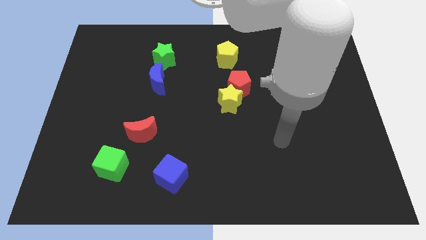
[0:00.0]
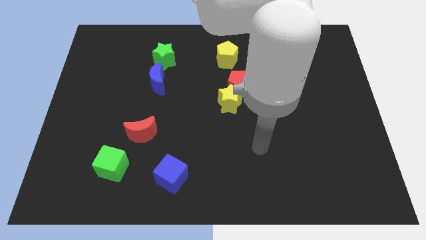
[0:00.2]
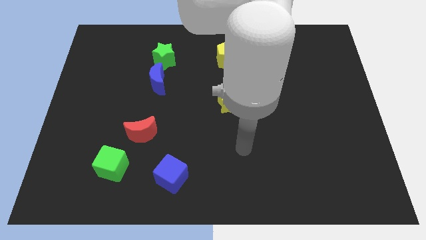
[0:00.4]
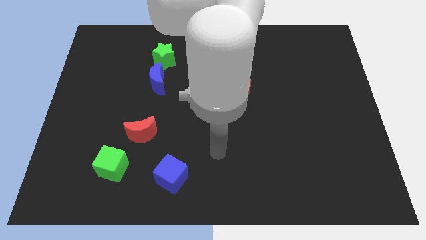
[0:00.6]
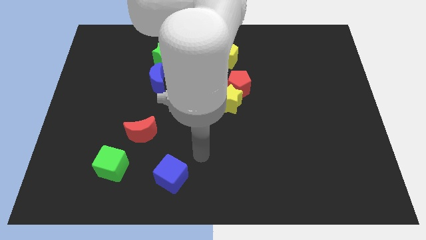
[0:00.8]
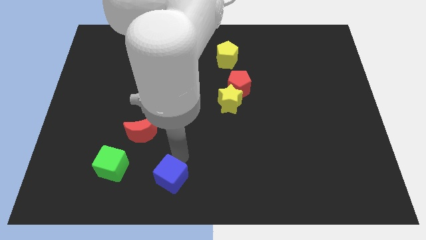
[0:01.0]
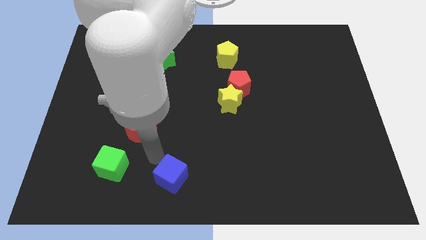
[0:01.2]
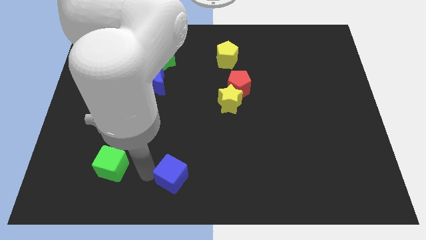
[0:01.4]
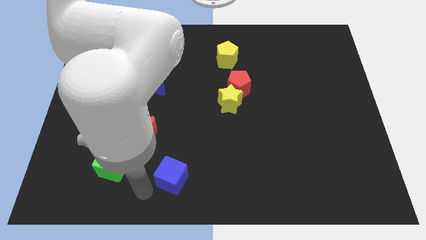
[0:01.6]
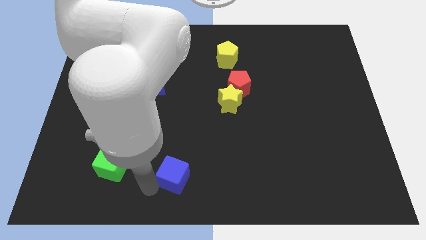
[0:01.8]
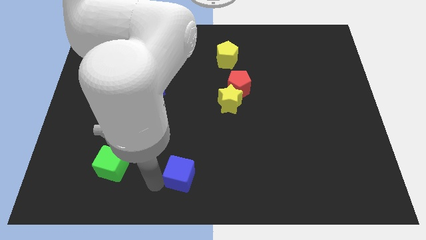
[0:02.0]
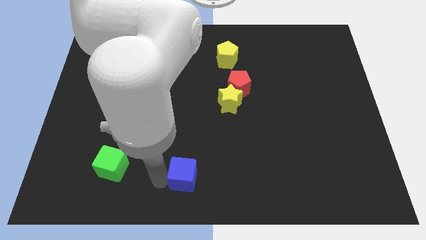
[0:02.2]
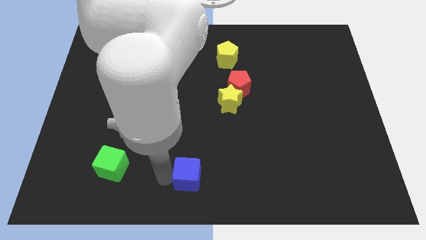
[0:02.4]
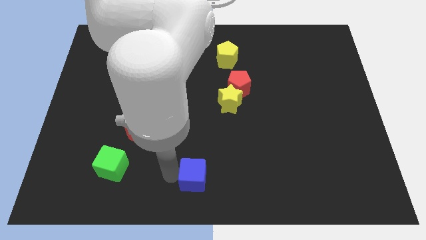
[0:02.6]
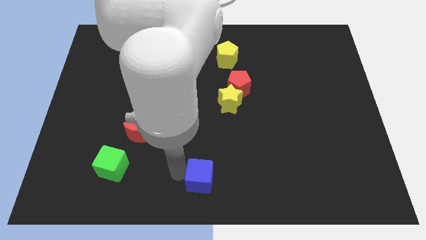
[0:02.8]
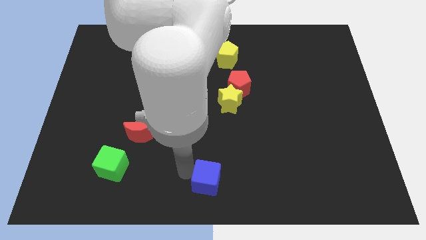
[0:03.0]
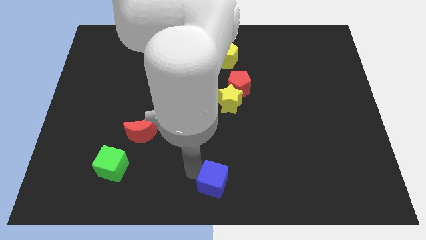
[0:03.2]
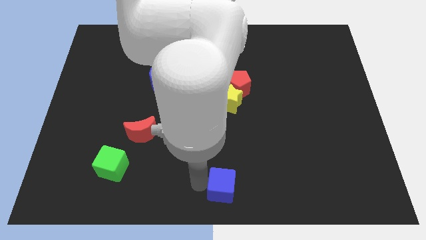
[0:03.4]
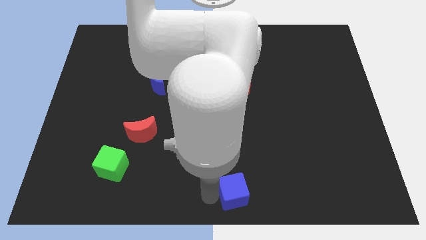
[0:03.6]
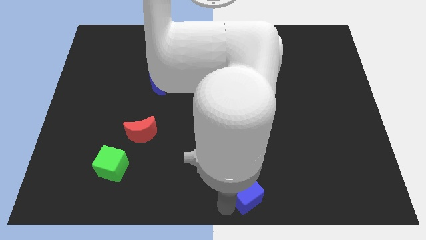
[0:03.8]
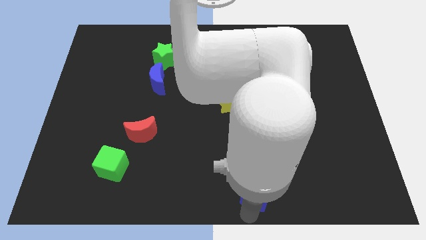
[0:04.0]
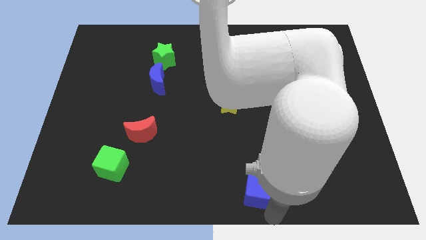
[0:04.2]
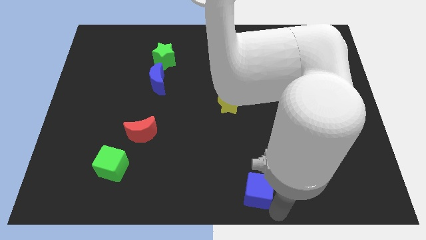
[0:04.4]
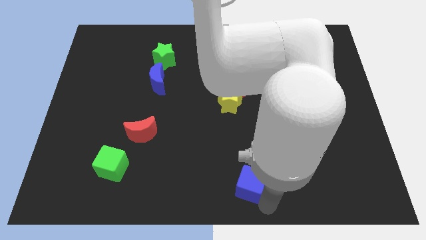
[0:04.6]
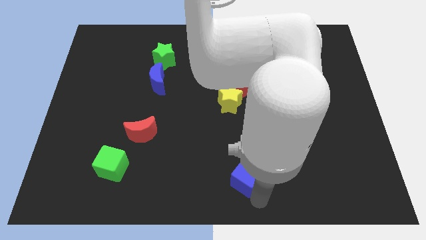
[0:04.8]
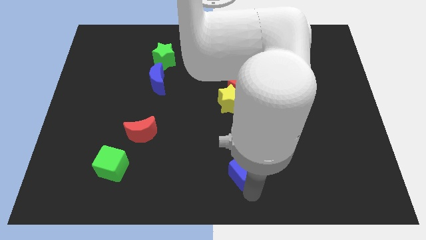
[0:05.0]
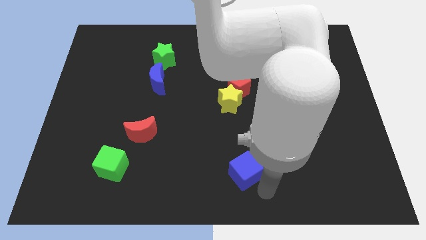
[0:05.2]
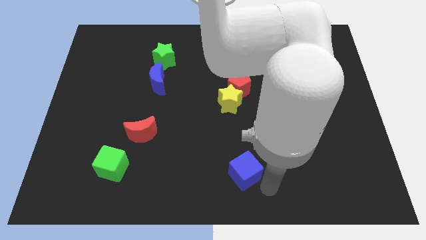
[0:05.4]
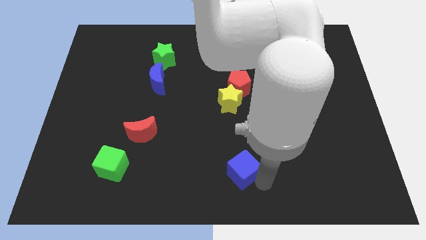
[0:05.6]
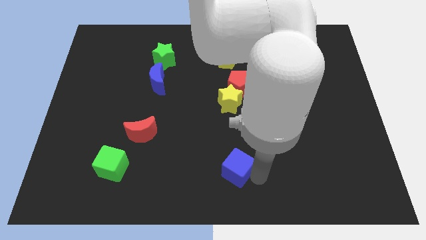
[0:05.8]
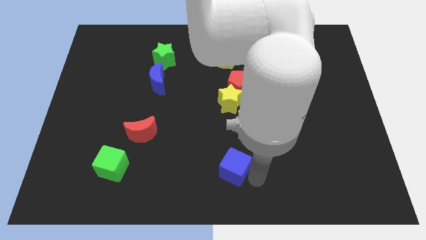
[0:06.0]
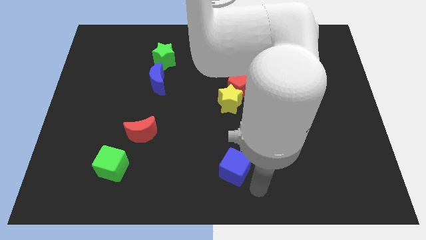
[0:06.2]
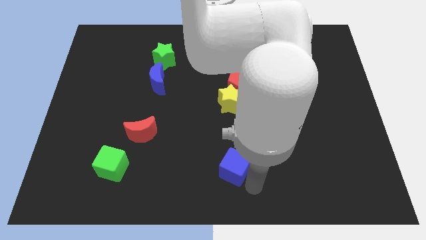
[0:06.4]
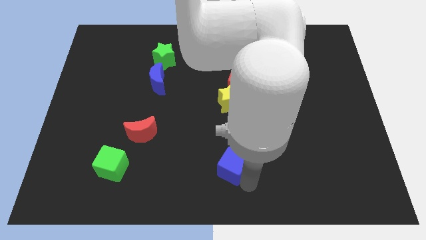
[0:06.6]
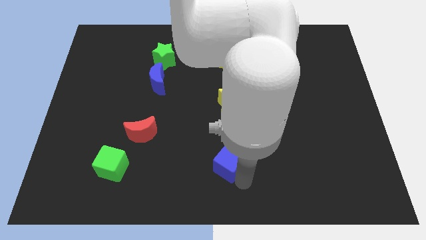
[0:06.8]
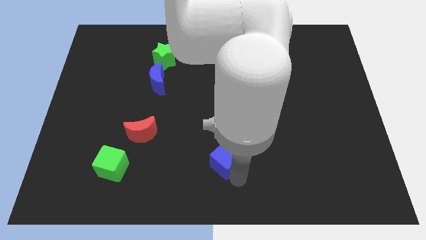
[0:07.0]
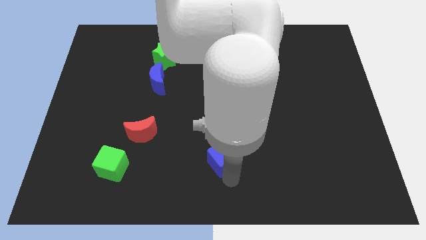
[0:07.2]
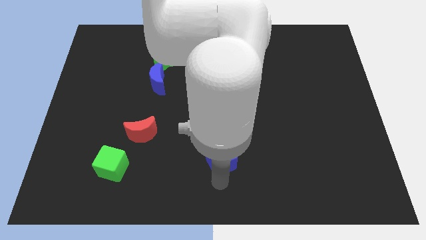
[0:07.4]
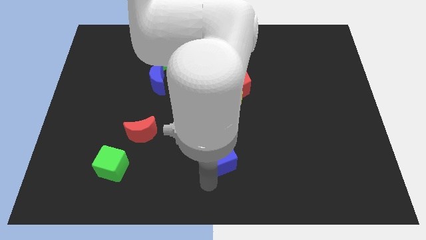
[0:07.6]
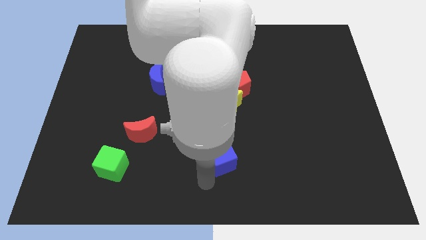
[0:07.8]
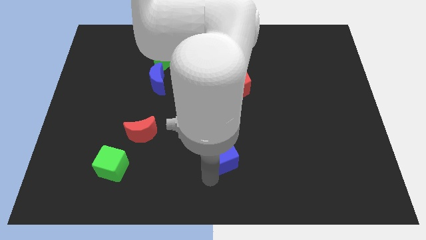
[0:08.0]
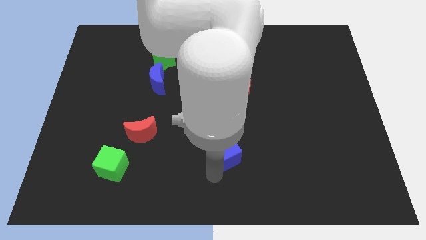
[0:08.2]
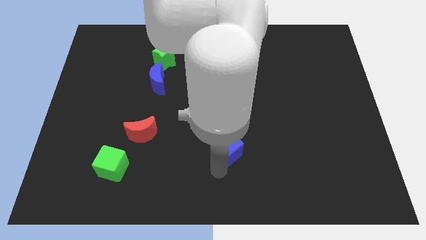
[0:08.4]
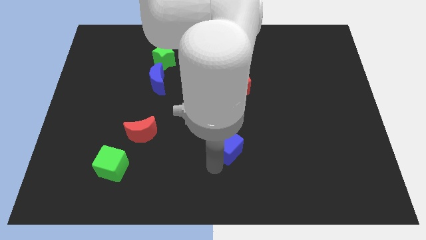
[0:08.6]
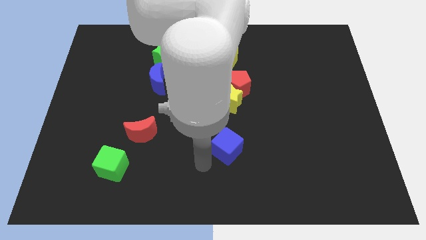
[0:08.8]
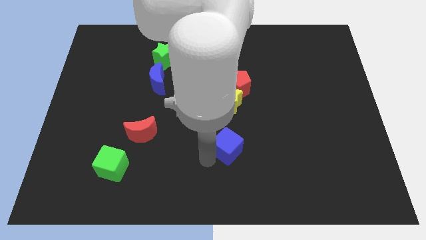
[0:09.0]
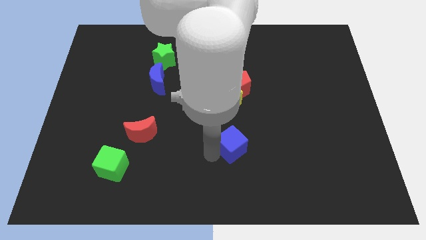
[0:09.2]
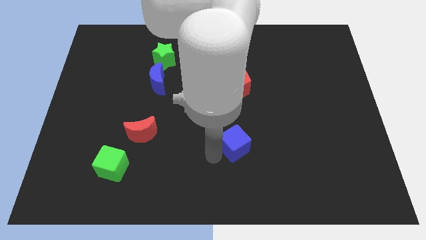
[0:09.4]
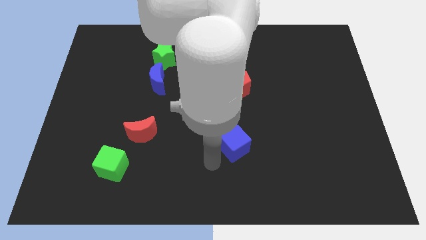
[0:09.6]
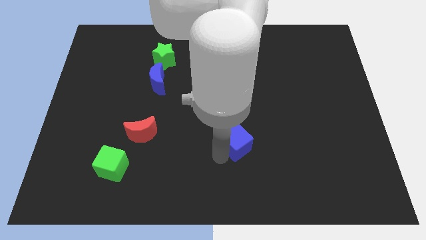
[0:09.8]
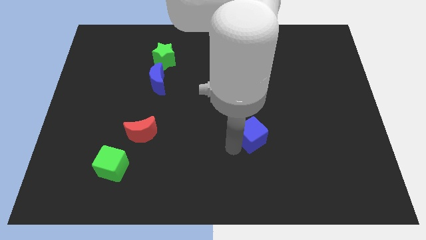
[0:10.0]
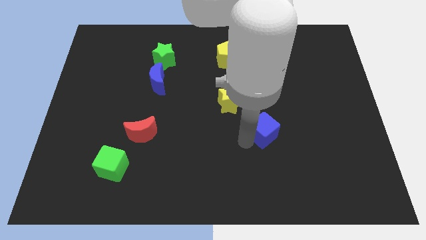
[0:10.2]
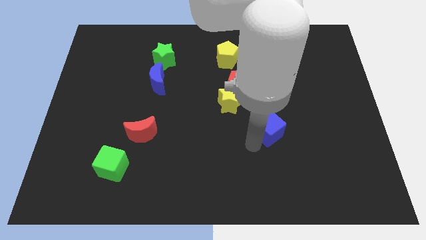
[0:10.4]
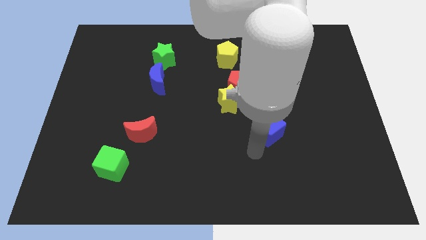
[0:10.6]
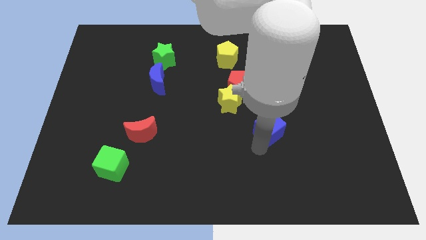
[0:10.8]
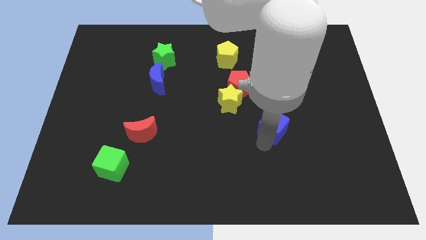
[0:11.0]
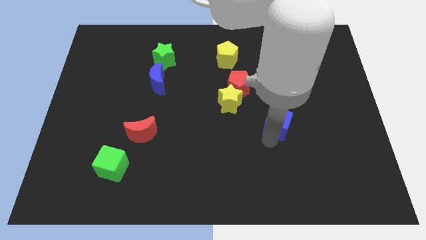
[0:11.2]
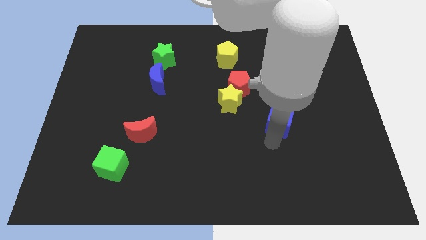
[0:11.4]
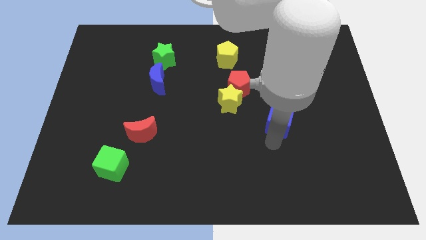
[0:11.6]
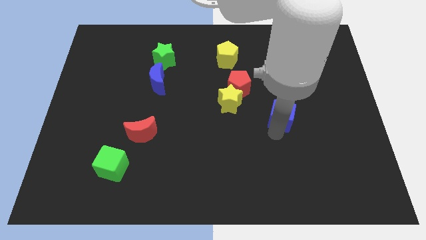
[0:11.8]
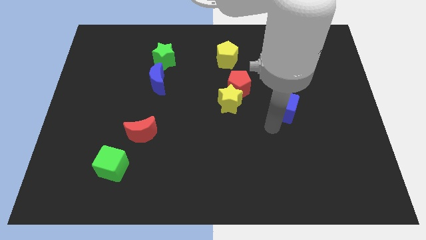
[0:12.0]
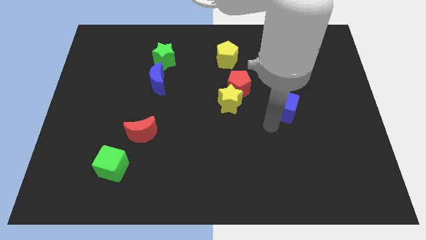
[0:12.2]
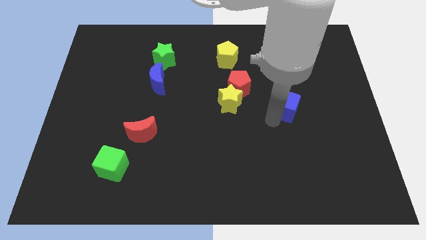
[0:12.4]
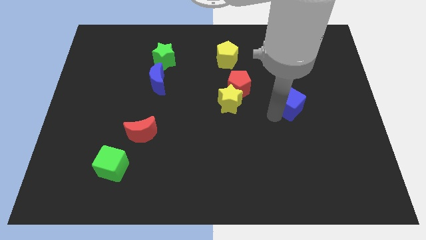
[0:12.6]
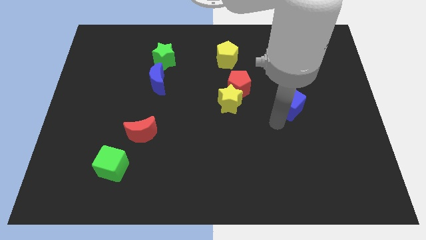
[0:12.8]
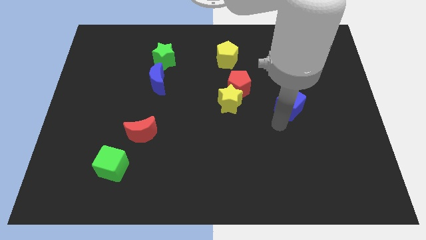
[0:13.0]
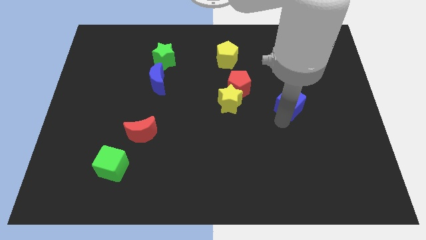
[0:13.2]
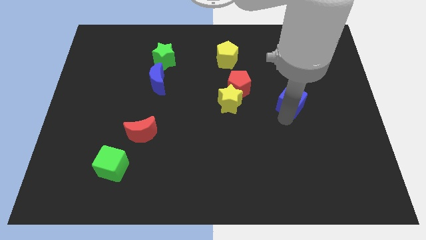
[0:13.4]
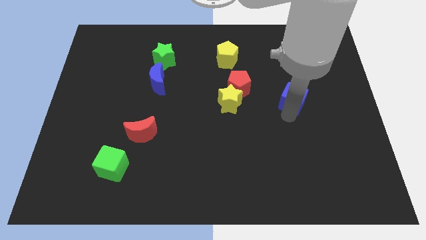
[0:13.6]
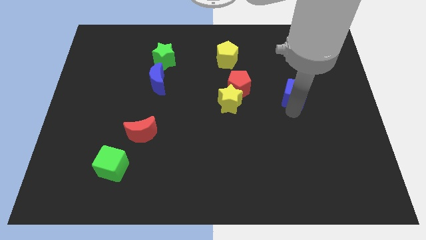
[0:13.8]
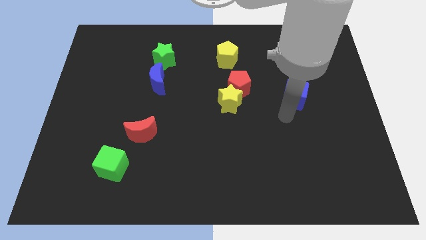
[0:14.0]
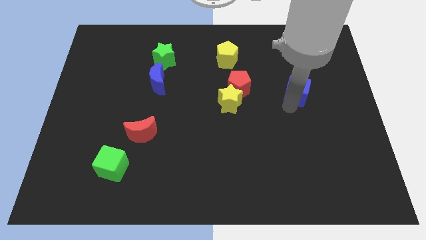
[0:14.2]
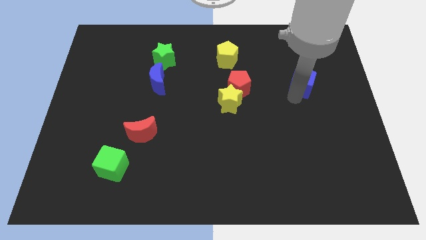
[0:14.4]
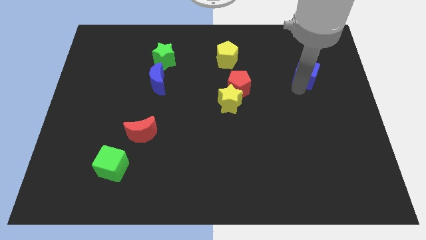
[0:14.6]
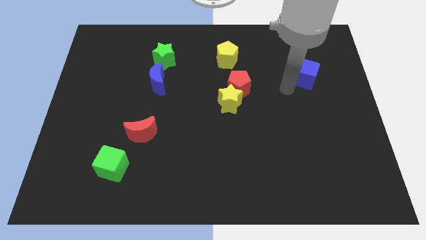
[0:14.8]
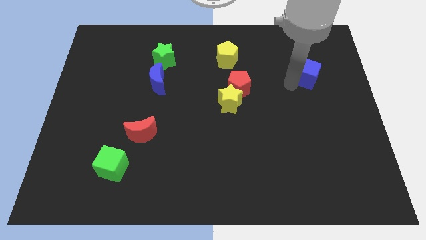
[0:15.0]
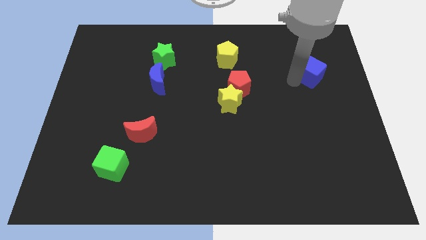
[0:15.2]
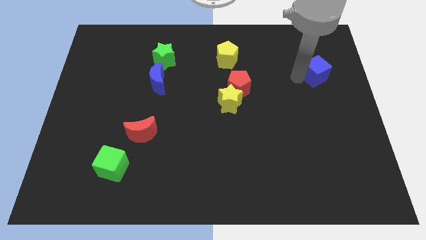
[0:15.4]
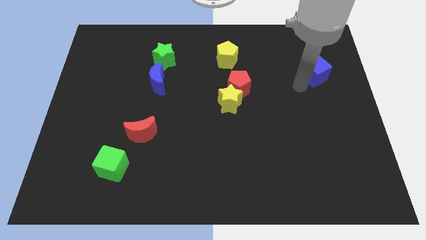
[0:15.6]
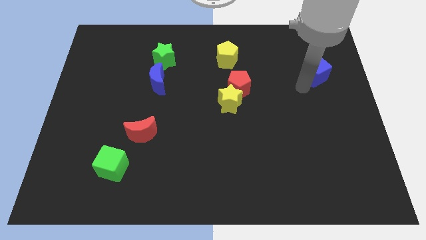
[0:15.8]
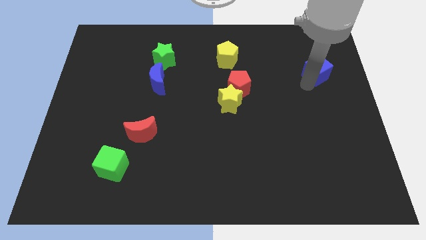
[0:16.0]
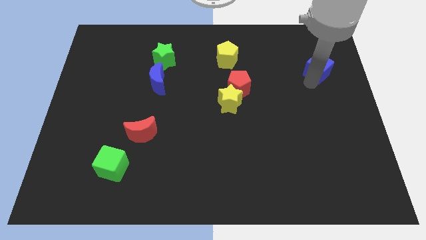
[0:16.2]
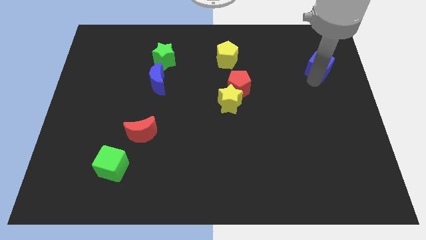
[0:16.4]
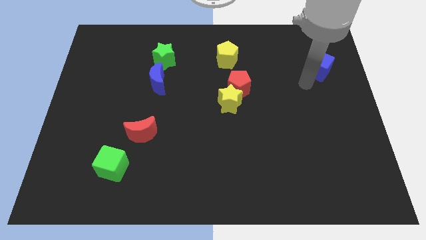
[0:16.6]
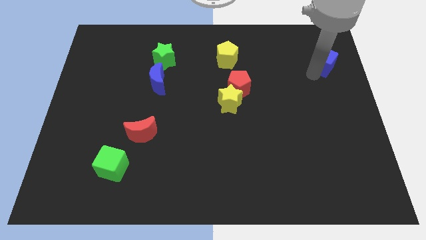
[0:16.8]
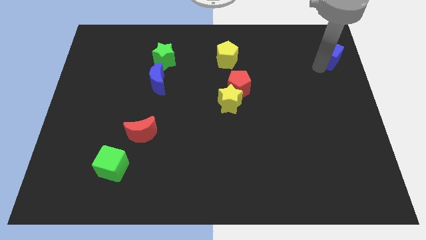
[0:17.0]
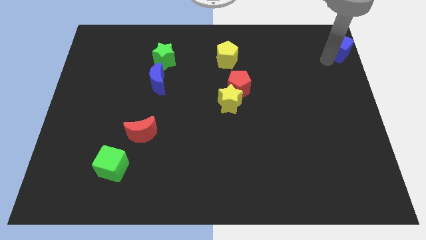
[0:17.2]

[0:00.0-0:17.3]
move the blue cube to the top right
